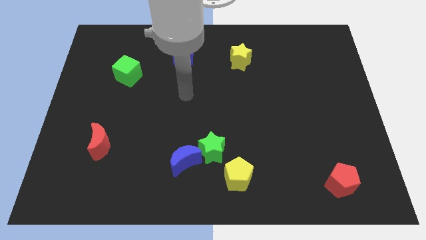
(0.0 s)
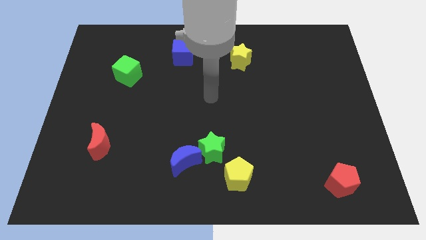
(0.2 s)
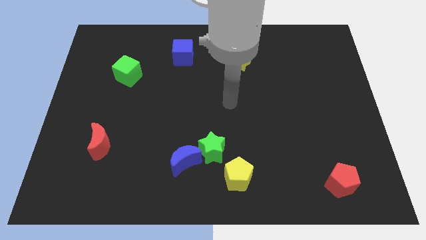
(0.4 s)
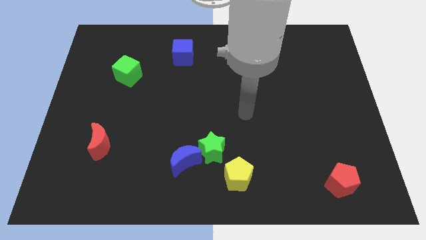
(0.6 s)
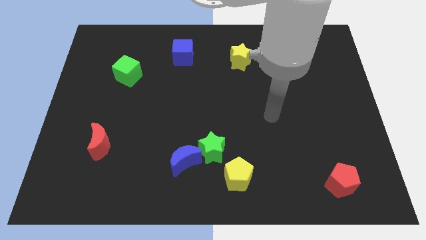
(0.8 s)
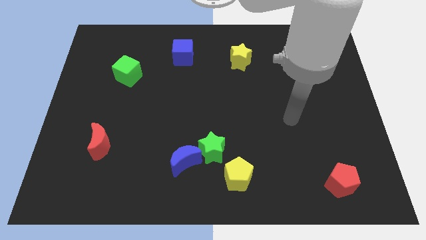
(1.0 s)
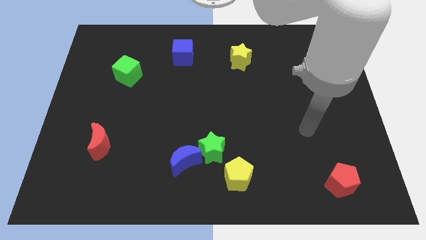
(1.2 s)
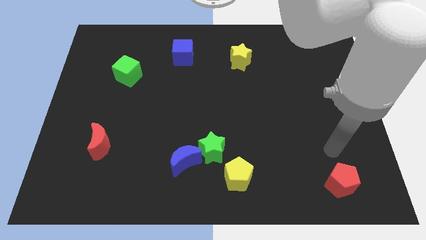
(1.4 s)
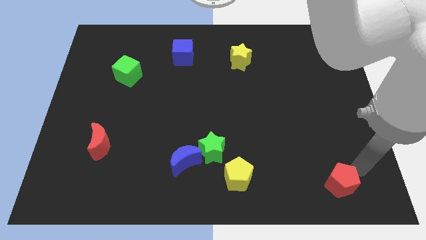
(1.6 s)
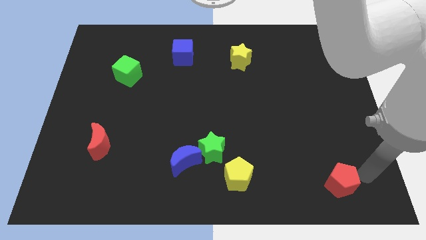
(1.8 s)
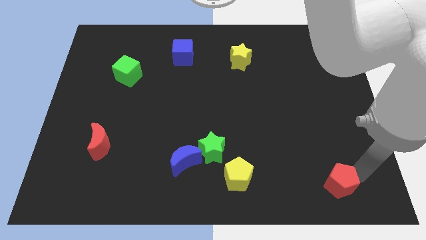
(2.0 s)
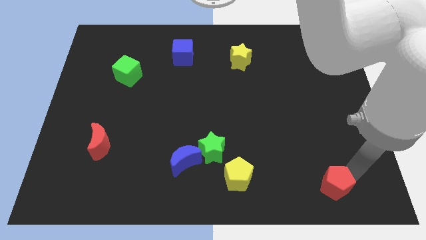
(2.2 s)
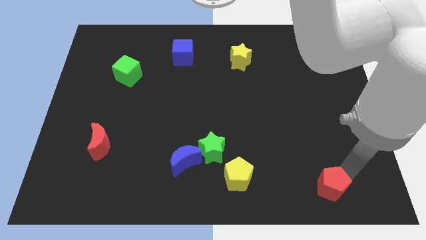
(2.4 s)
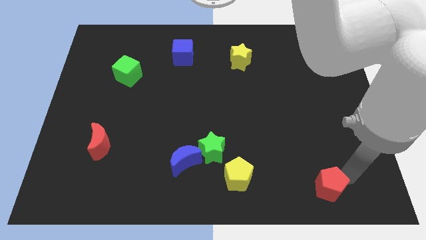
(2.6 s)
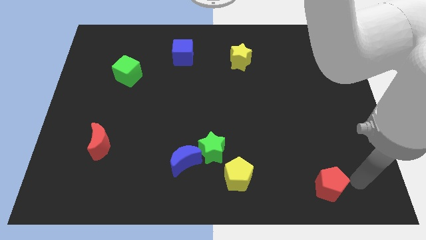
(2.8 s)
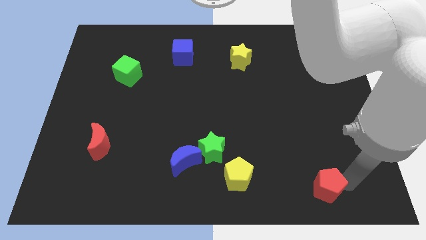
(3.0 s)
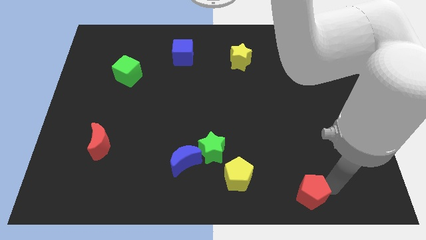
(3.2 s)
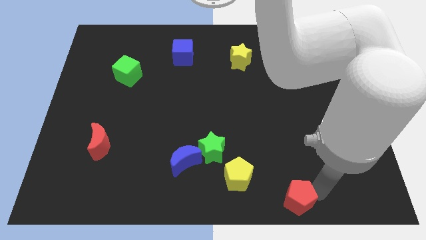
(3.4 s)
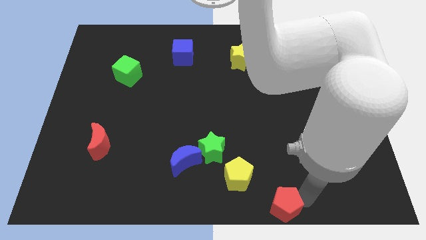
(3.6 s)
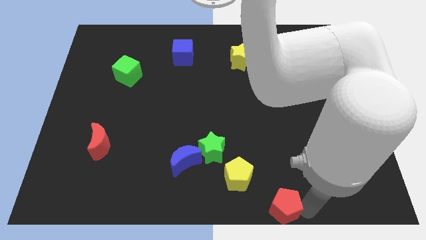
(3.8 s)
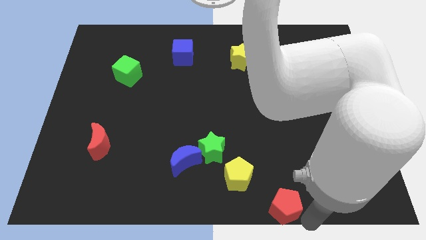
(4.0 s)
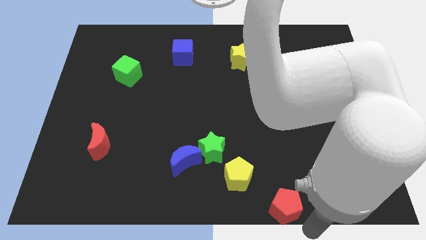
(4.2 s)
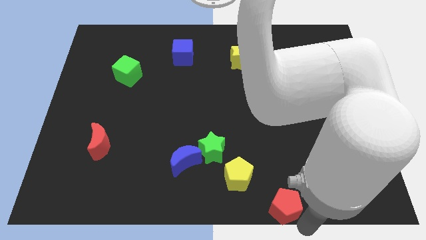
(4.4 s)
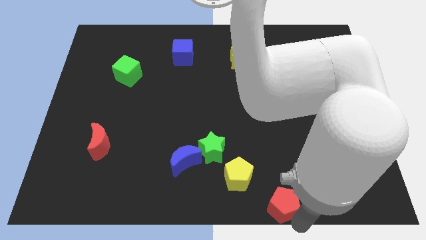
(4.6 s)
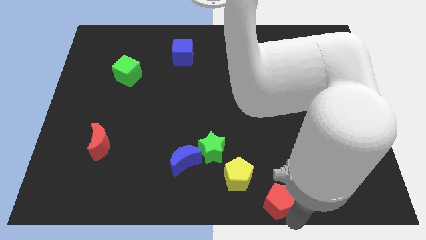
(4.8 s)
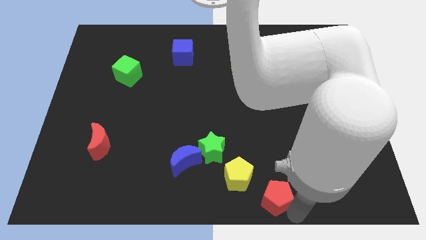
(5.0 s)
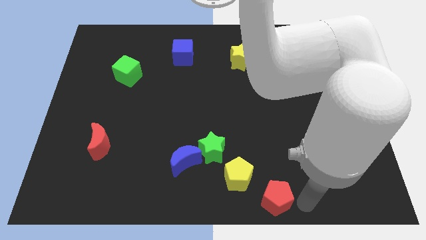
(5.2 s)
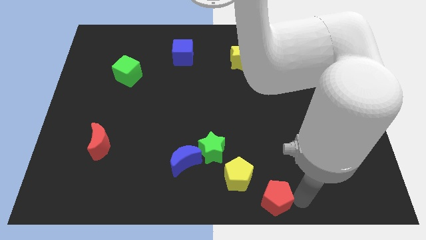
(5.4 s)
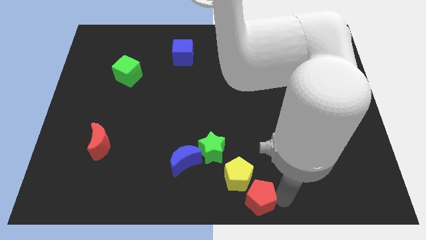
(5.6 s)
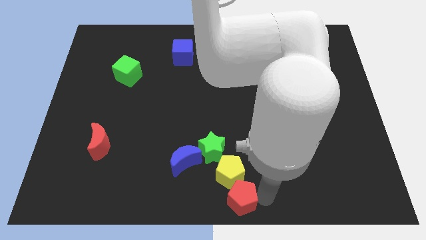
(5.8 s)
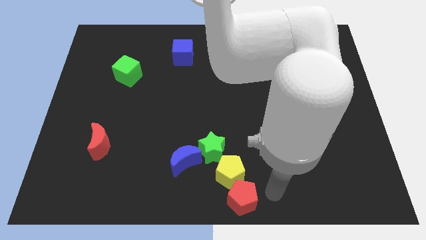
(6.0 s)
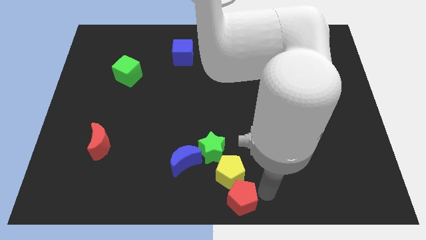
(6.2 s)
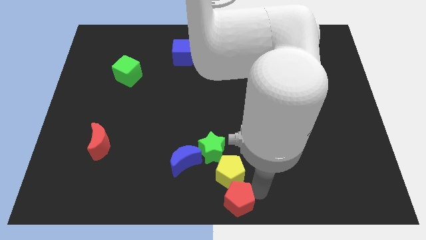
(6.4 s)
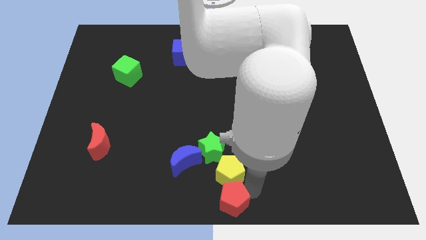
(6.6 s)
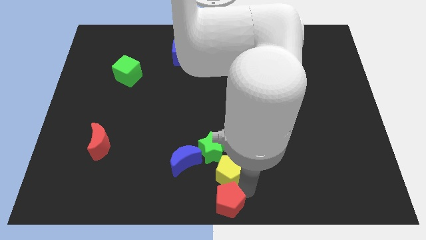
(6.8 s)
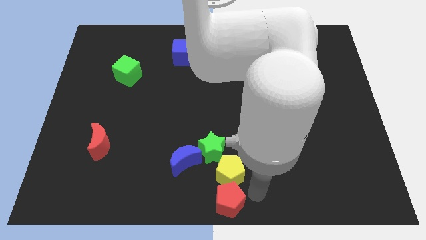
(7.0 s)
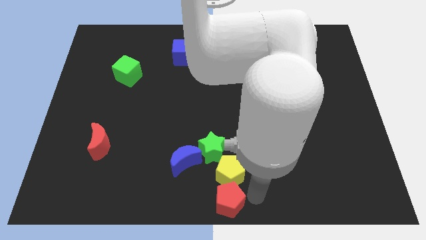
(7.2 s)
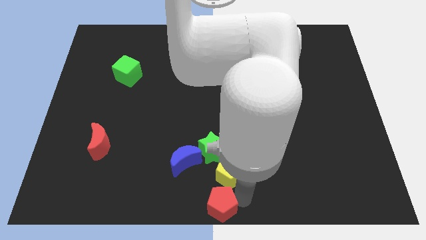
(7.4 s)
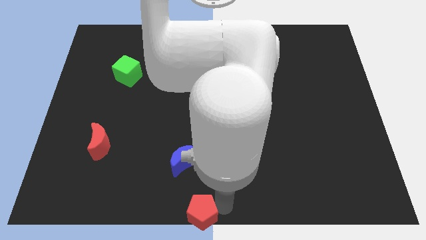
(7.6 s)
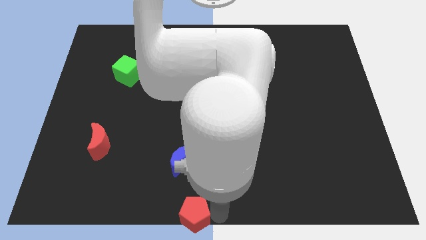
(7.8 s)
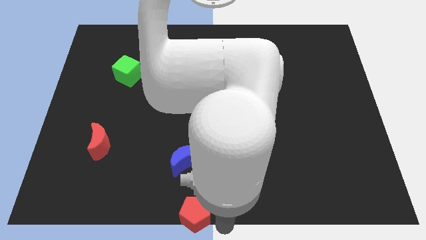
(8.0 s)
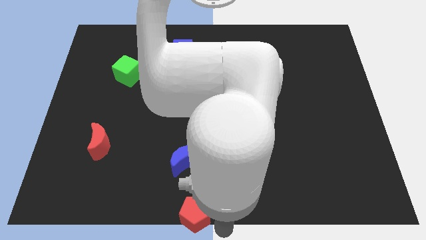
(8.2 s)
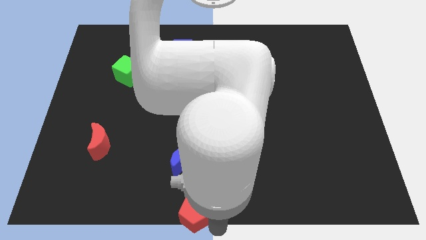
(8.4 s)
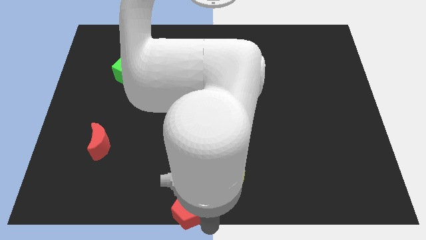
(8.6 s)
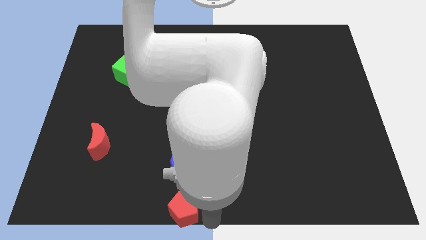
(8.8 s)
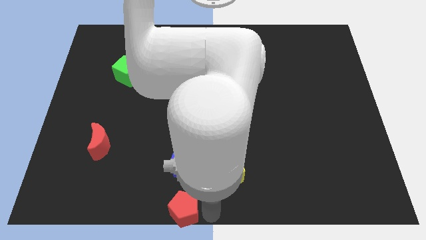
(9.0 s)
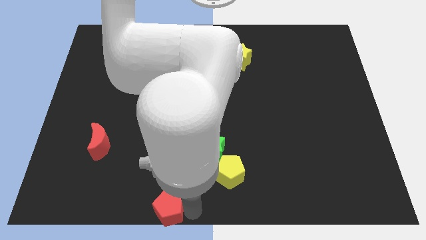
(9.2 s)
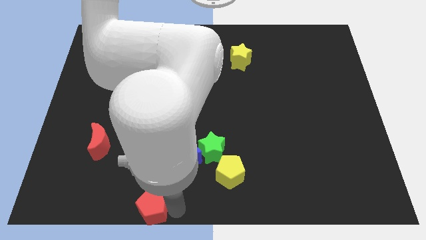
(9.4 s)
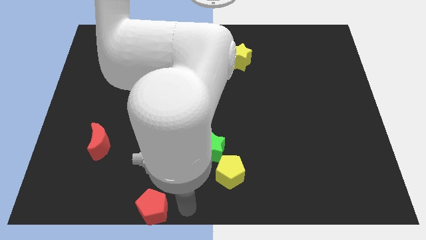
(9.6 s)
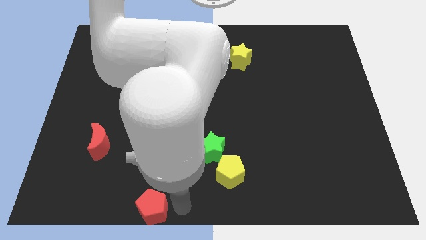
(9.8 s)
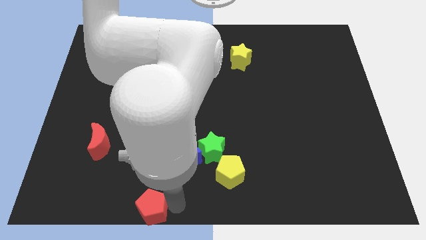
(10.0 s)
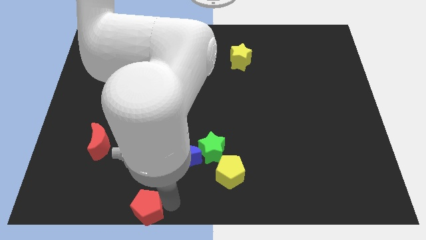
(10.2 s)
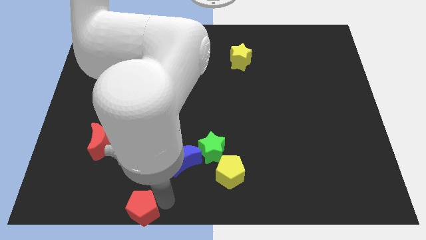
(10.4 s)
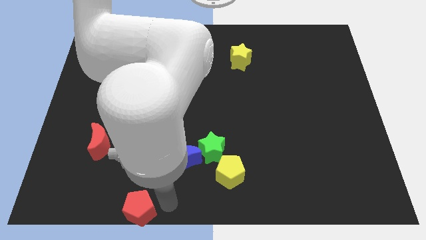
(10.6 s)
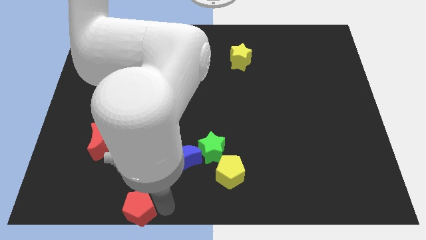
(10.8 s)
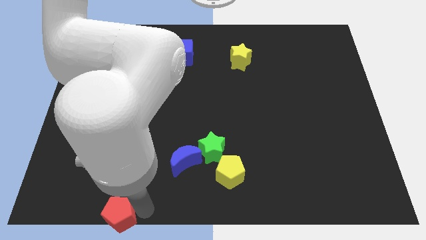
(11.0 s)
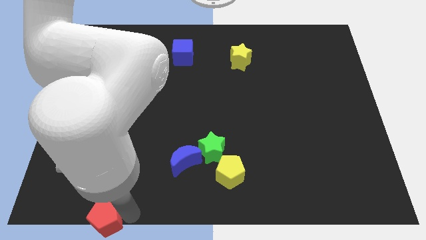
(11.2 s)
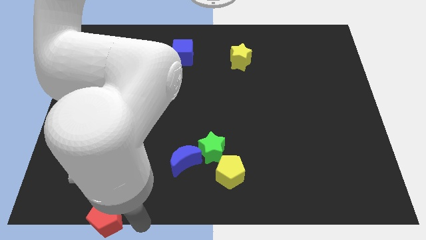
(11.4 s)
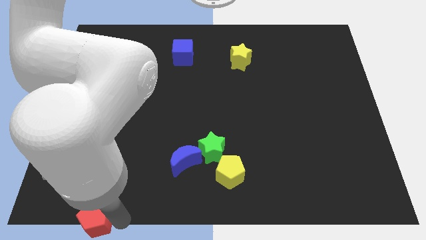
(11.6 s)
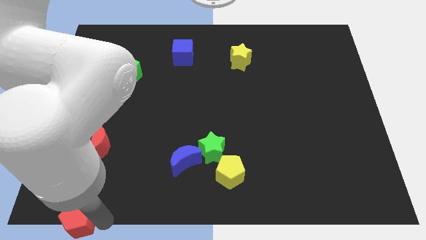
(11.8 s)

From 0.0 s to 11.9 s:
slide the red pentagon to the bottom left corner

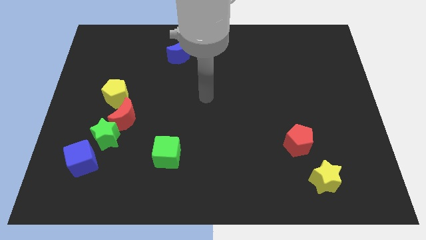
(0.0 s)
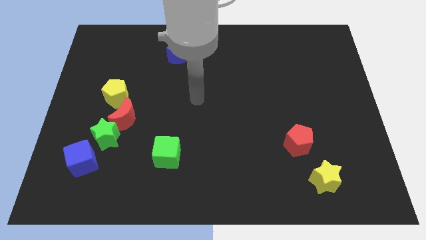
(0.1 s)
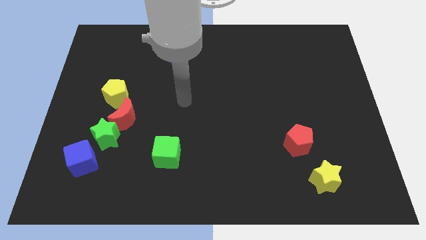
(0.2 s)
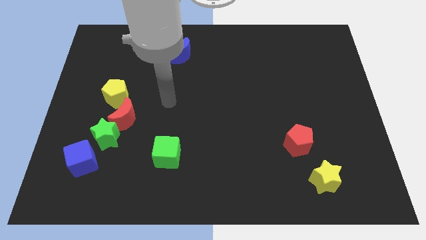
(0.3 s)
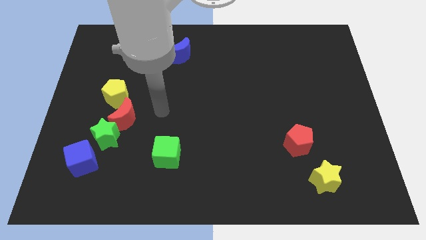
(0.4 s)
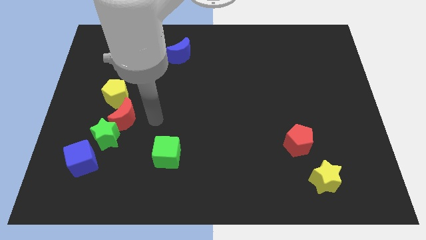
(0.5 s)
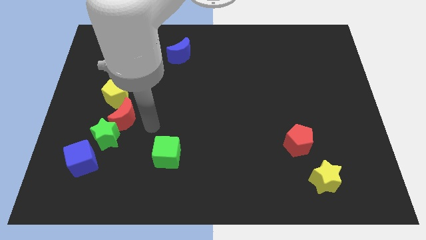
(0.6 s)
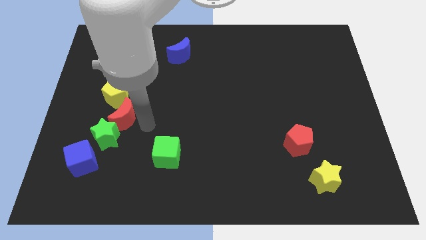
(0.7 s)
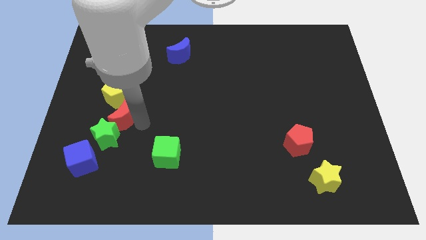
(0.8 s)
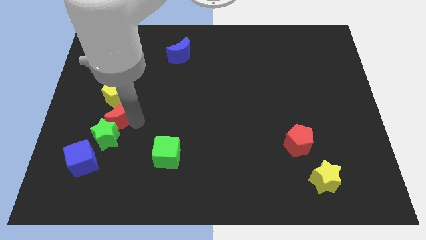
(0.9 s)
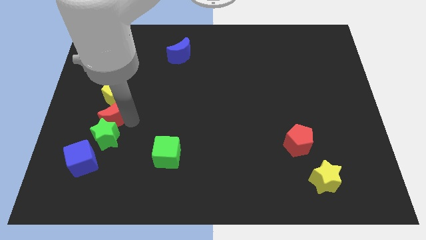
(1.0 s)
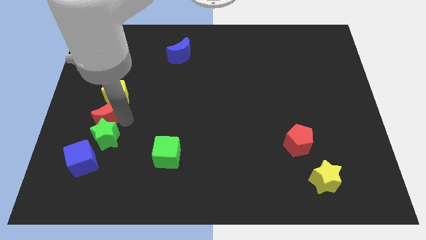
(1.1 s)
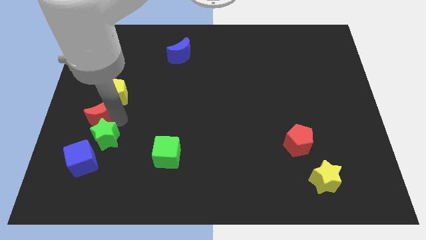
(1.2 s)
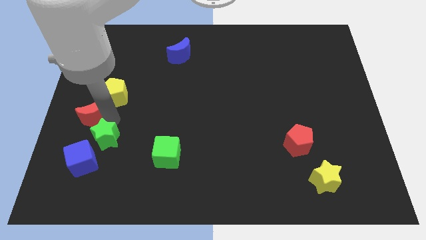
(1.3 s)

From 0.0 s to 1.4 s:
push the red moon to the left side of the board
